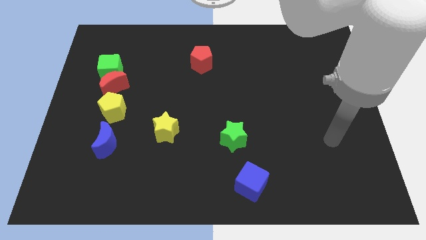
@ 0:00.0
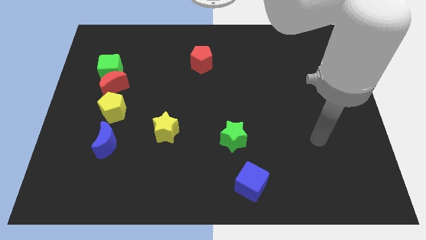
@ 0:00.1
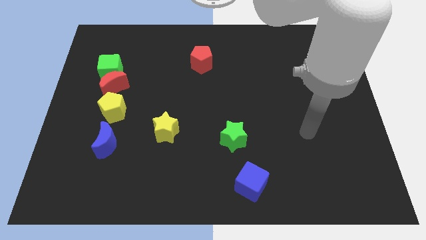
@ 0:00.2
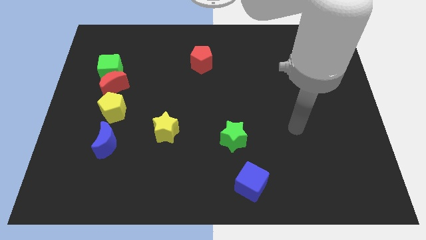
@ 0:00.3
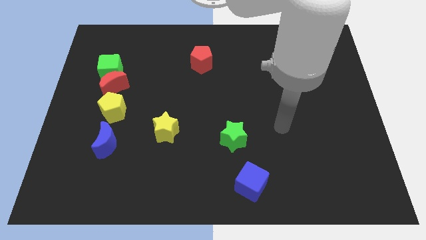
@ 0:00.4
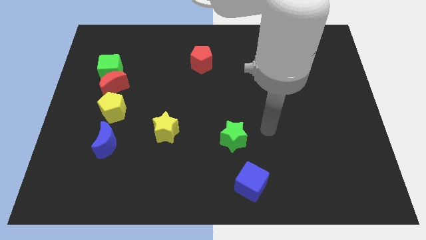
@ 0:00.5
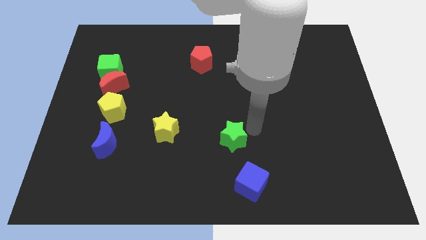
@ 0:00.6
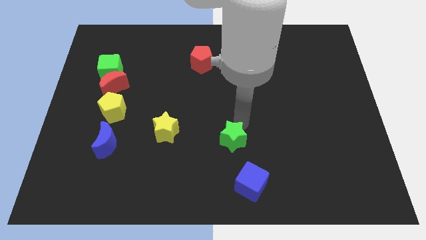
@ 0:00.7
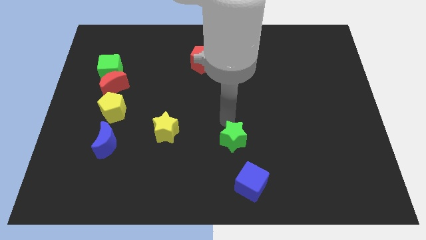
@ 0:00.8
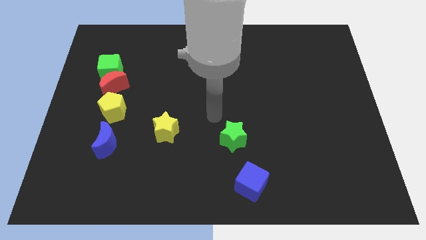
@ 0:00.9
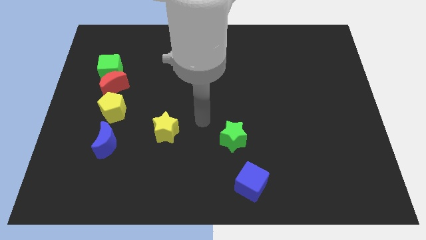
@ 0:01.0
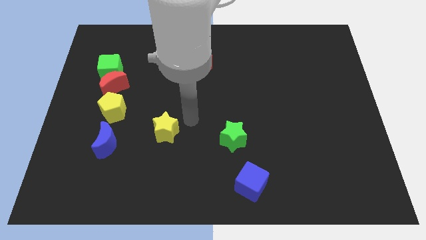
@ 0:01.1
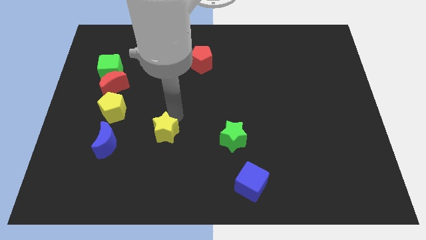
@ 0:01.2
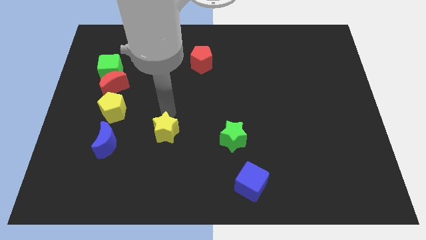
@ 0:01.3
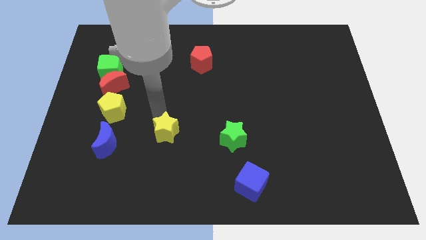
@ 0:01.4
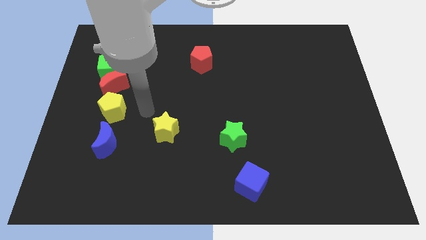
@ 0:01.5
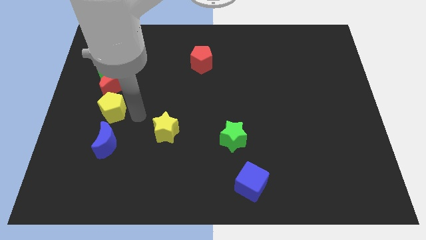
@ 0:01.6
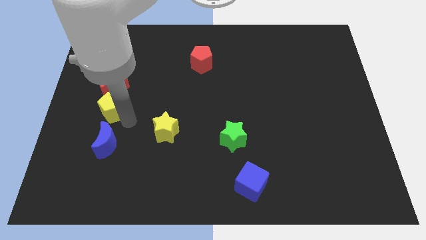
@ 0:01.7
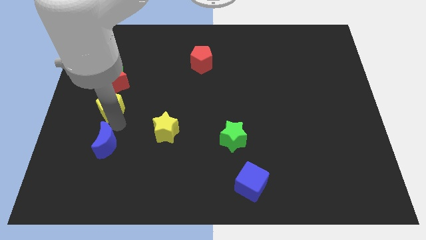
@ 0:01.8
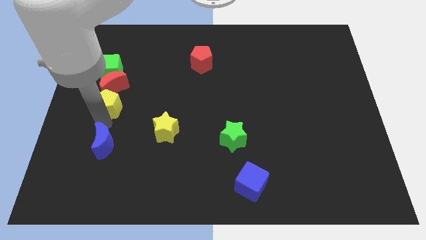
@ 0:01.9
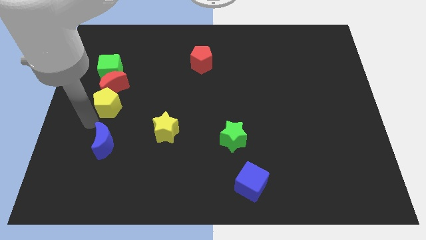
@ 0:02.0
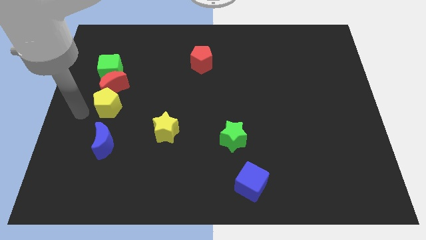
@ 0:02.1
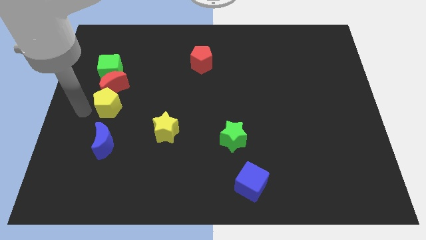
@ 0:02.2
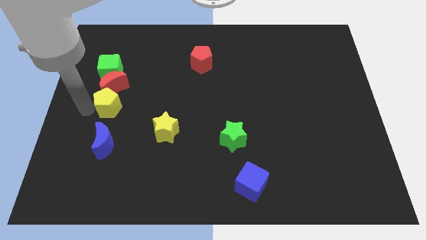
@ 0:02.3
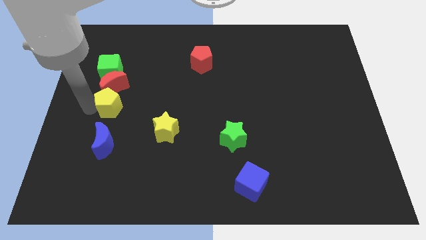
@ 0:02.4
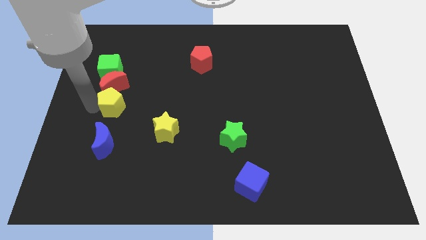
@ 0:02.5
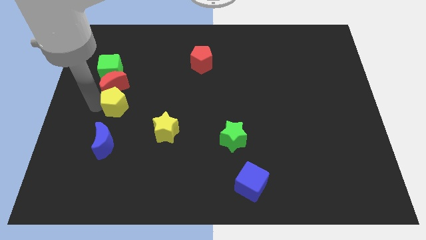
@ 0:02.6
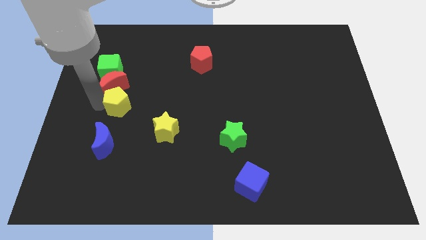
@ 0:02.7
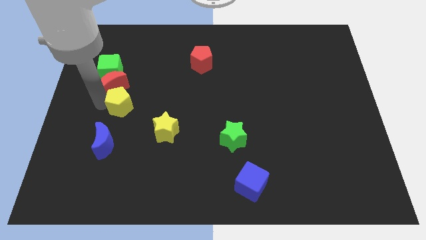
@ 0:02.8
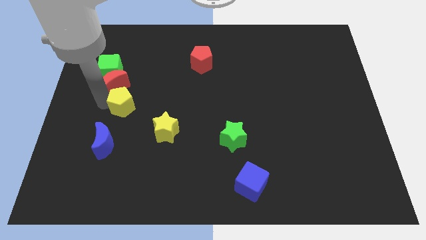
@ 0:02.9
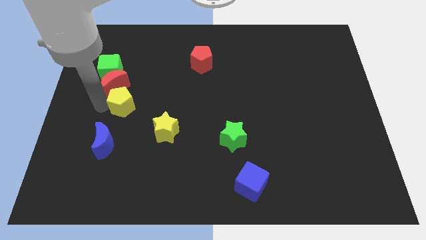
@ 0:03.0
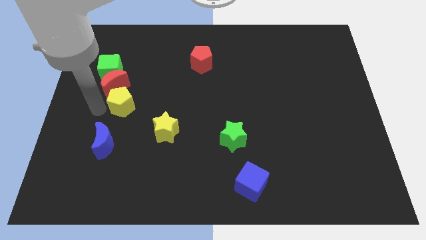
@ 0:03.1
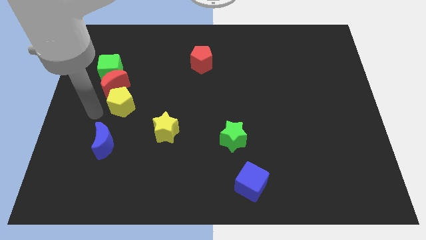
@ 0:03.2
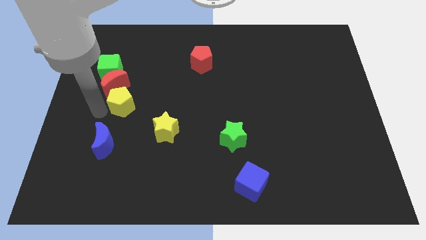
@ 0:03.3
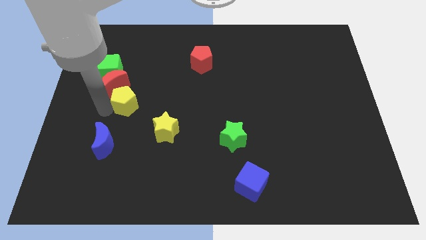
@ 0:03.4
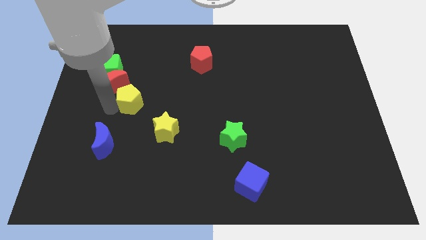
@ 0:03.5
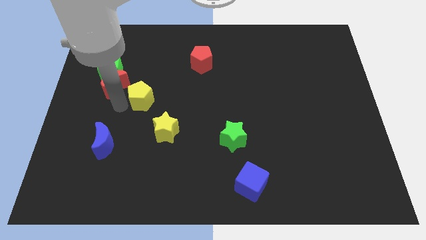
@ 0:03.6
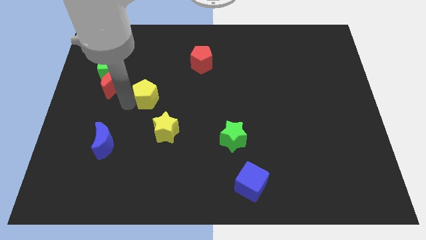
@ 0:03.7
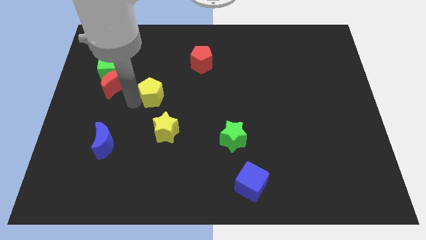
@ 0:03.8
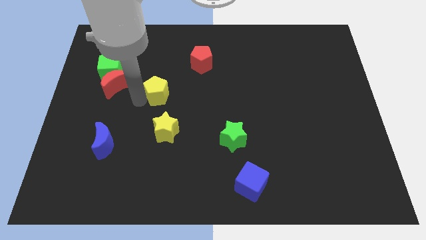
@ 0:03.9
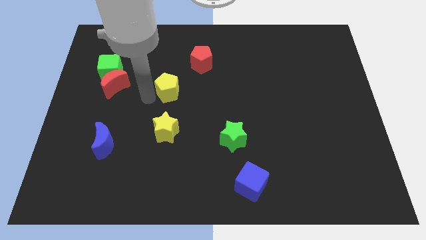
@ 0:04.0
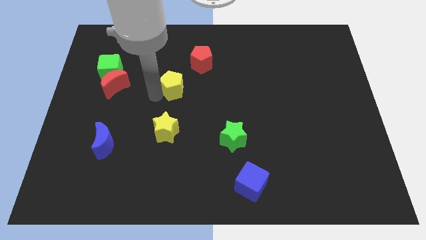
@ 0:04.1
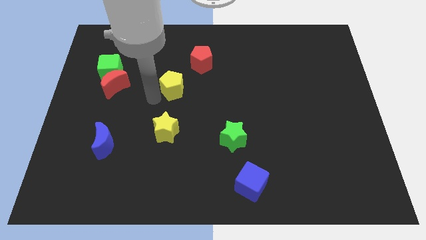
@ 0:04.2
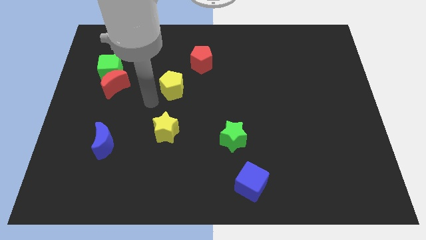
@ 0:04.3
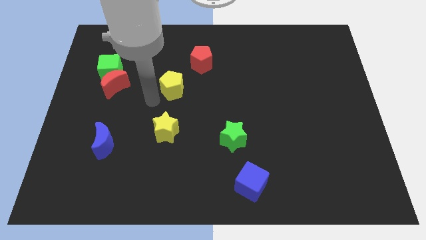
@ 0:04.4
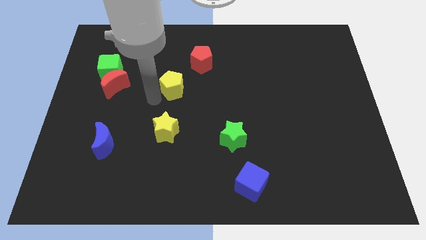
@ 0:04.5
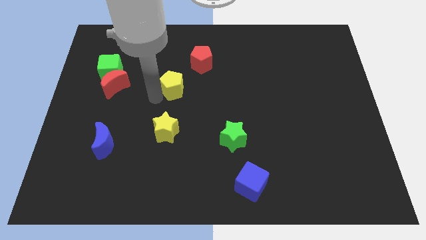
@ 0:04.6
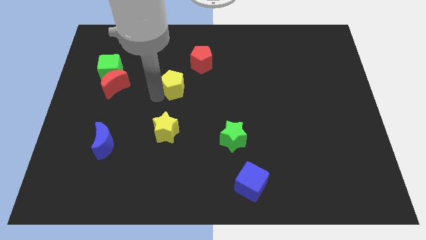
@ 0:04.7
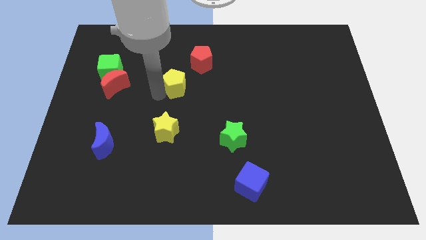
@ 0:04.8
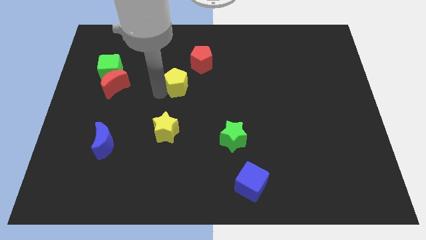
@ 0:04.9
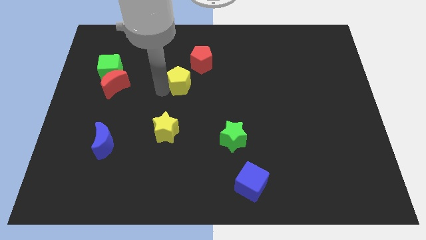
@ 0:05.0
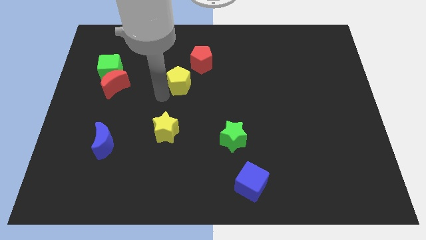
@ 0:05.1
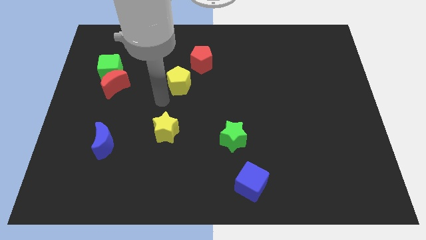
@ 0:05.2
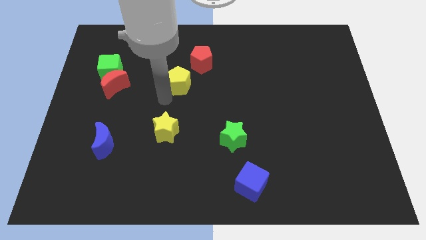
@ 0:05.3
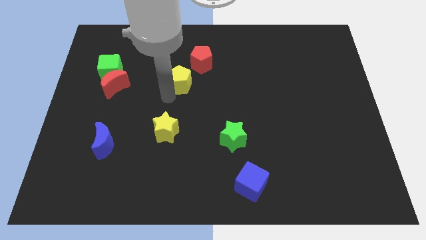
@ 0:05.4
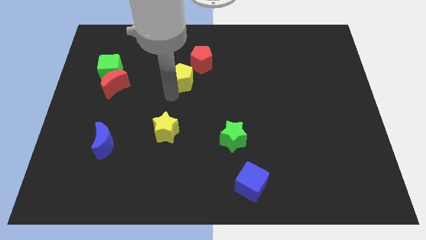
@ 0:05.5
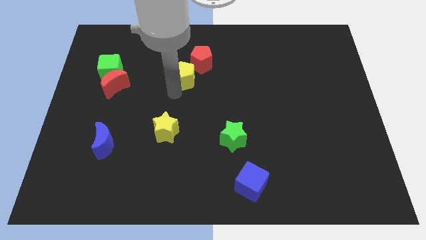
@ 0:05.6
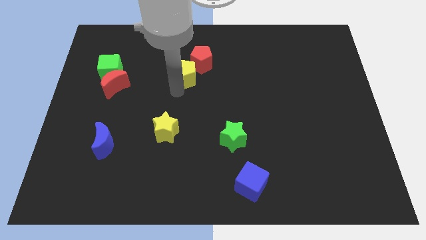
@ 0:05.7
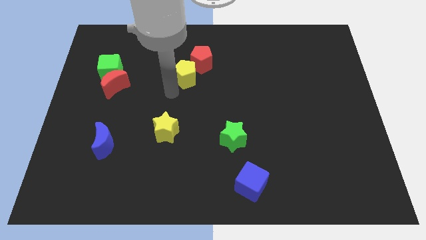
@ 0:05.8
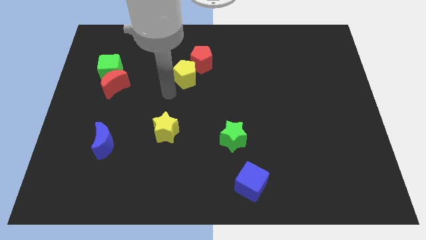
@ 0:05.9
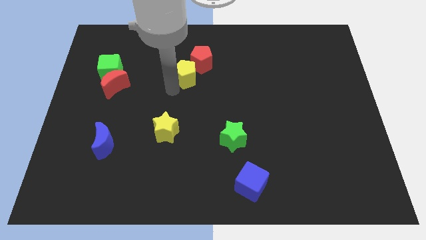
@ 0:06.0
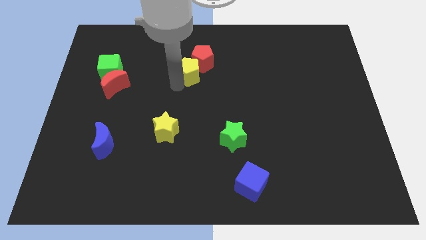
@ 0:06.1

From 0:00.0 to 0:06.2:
slide the yellow pentagon close to the red pentagon
